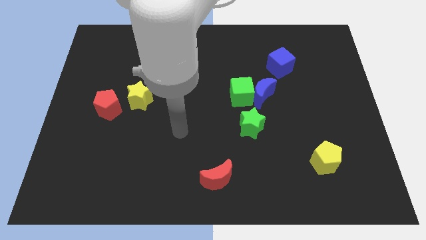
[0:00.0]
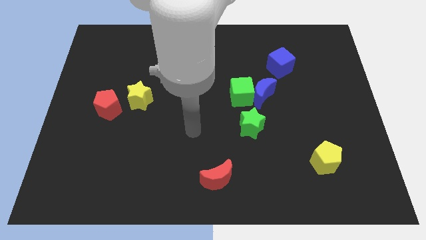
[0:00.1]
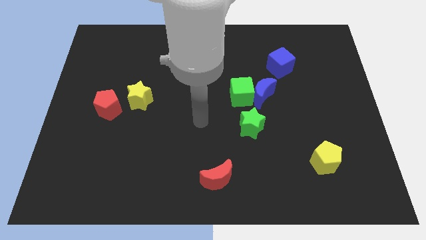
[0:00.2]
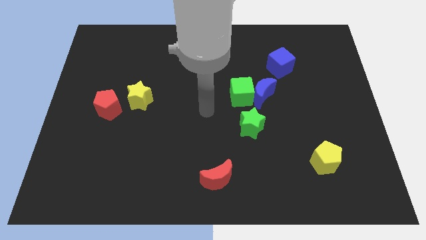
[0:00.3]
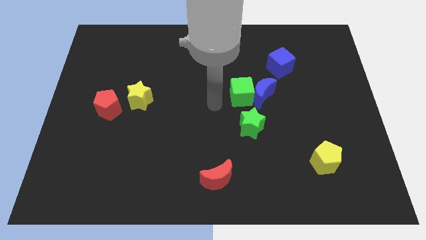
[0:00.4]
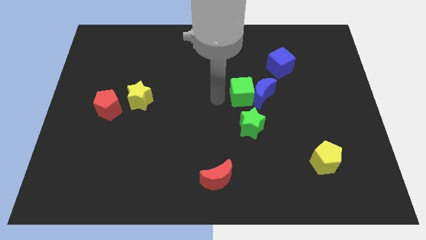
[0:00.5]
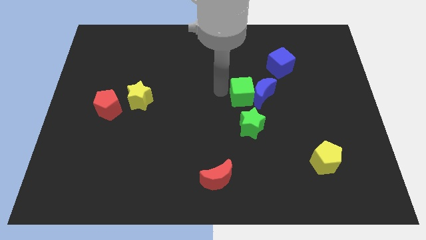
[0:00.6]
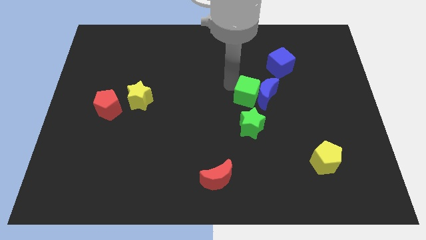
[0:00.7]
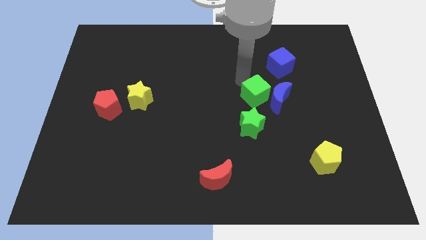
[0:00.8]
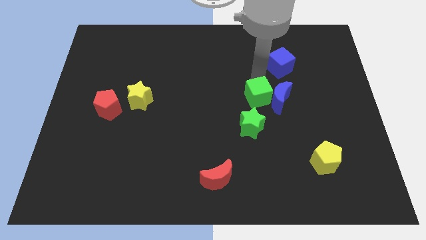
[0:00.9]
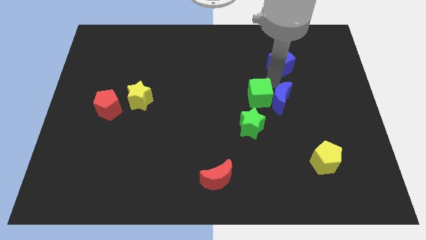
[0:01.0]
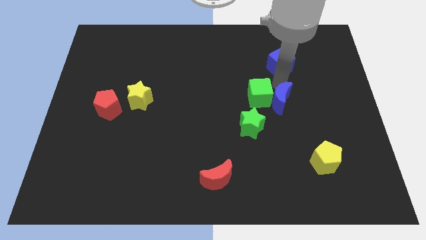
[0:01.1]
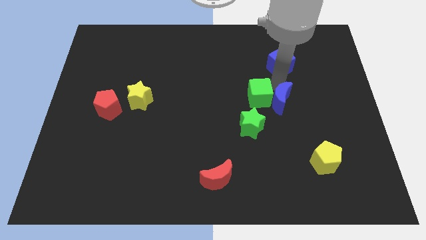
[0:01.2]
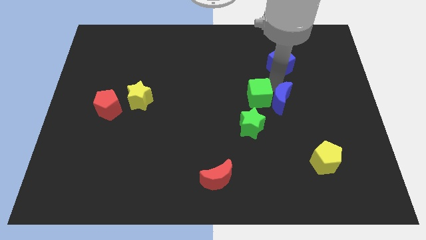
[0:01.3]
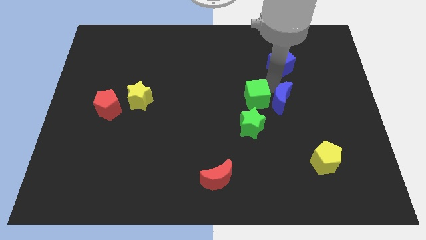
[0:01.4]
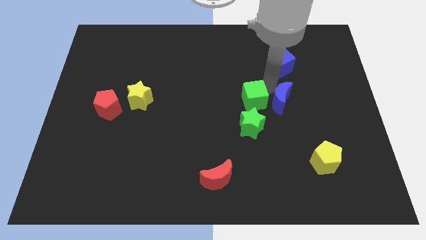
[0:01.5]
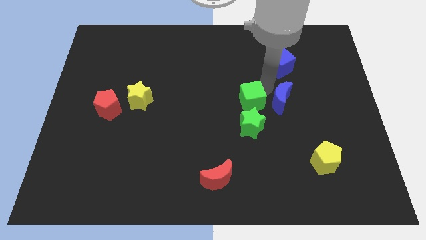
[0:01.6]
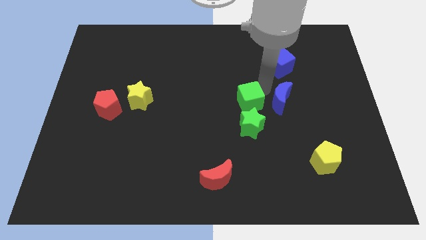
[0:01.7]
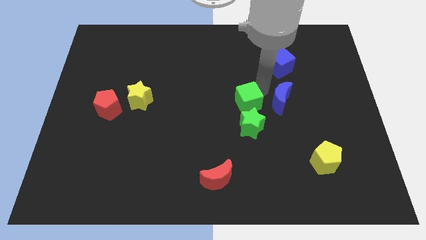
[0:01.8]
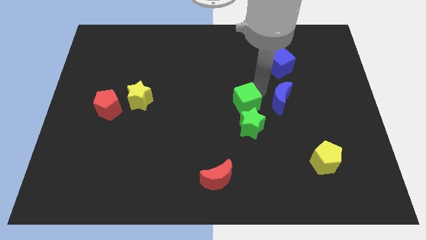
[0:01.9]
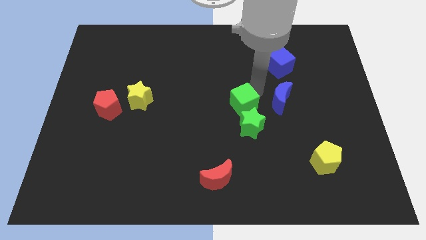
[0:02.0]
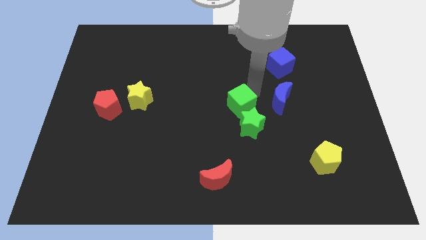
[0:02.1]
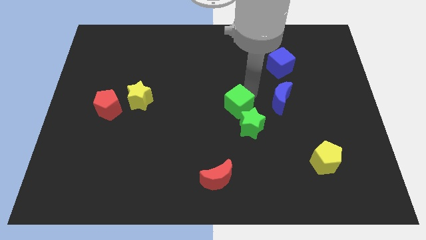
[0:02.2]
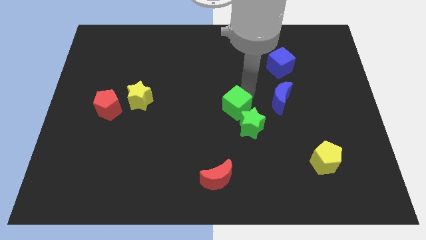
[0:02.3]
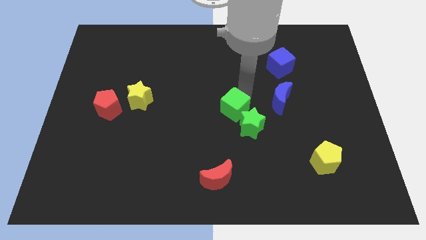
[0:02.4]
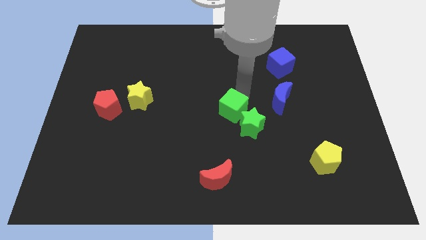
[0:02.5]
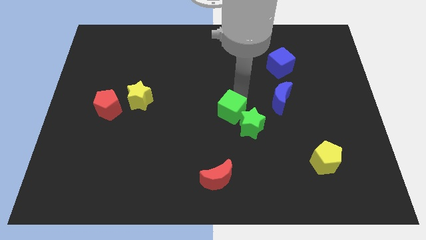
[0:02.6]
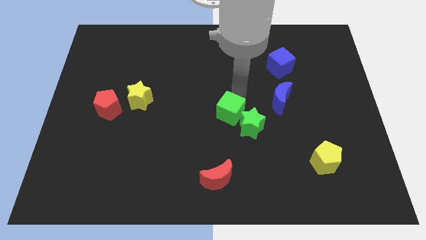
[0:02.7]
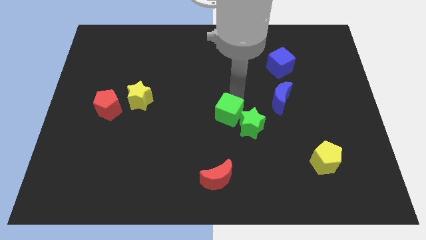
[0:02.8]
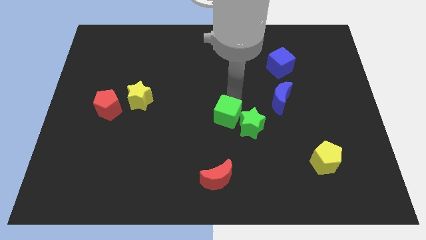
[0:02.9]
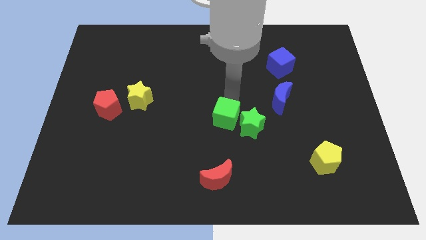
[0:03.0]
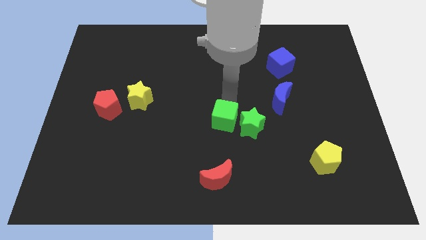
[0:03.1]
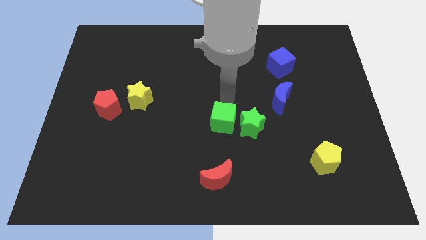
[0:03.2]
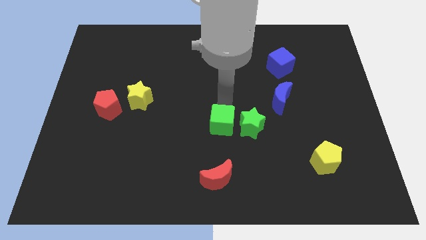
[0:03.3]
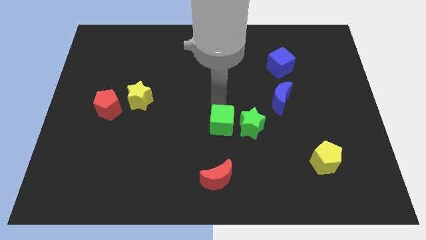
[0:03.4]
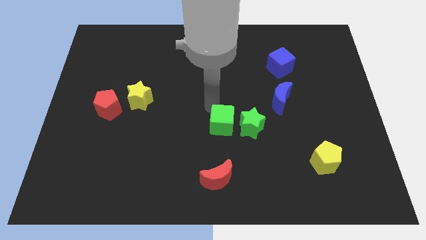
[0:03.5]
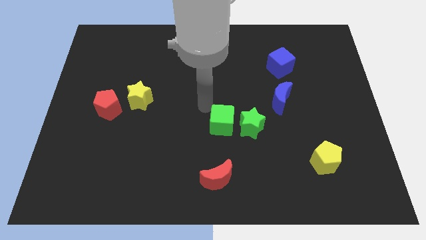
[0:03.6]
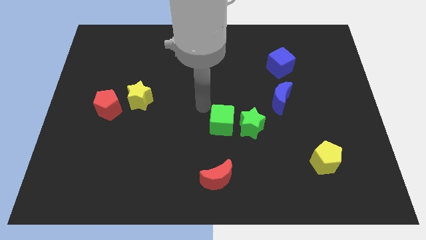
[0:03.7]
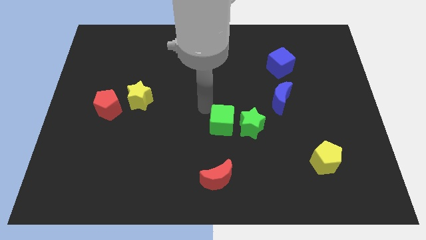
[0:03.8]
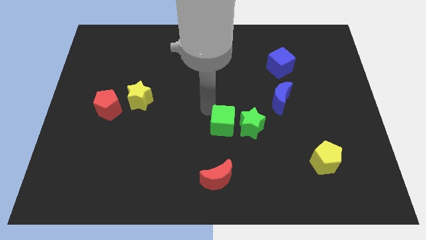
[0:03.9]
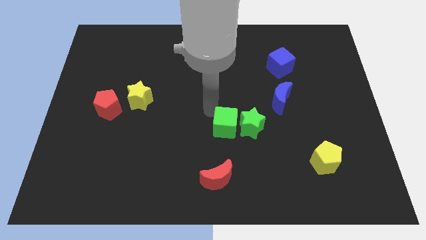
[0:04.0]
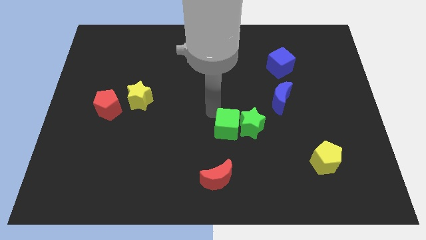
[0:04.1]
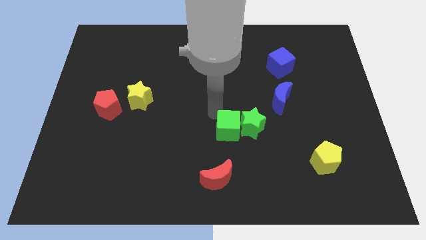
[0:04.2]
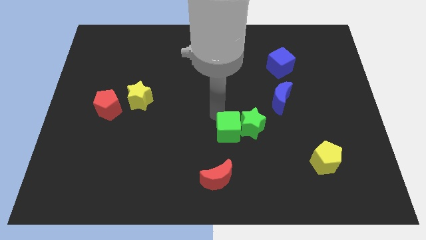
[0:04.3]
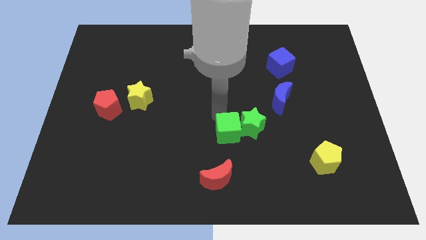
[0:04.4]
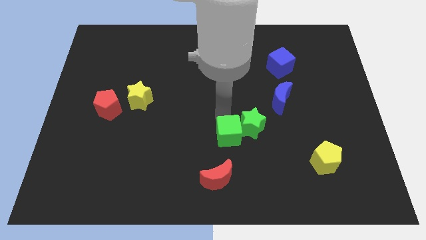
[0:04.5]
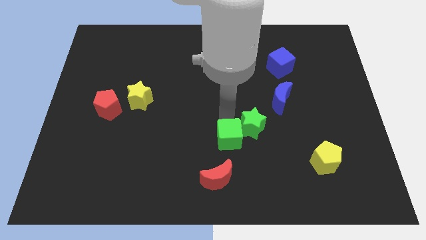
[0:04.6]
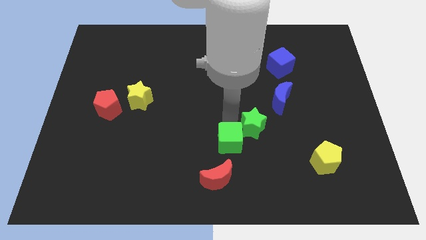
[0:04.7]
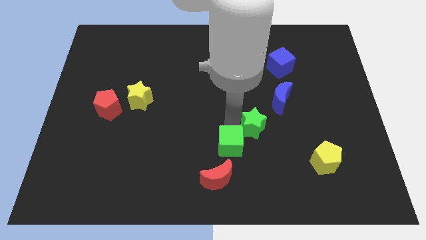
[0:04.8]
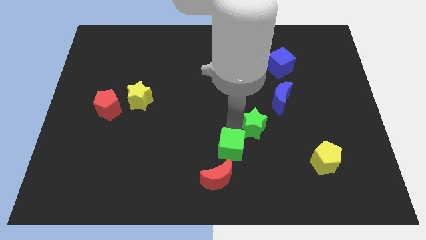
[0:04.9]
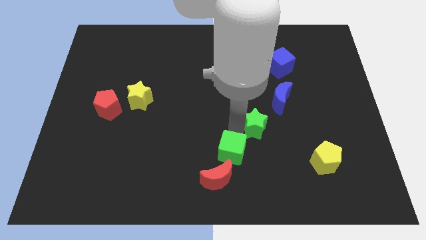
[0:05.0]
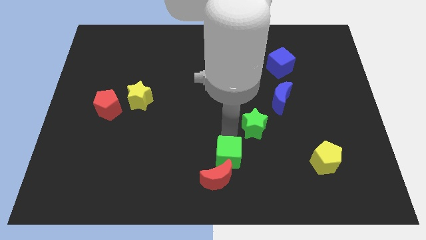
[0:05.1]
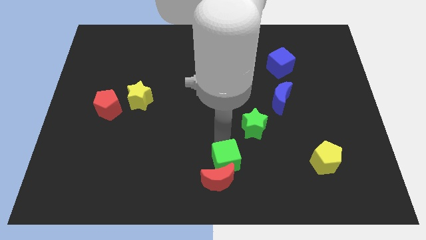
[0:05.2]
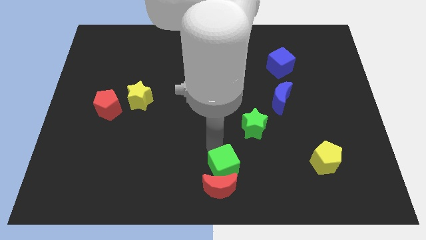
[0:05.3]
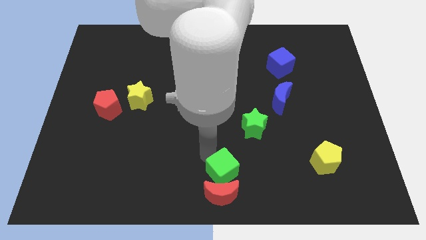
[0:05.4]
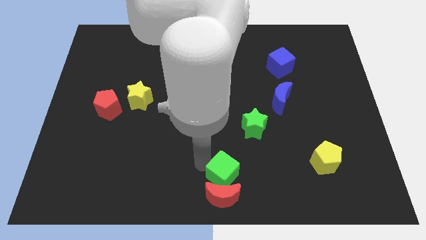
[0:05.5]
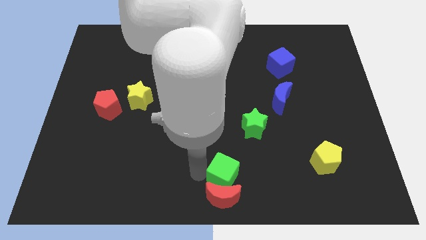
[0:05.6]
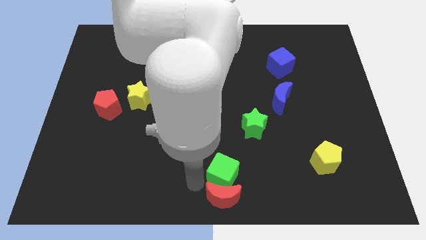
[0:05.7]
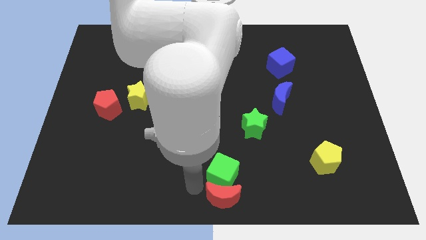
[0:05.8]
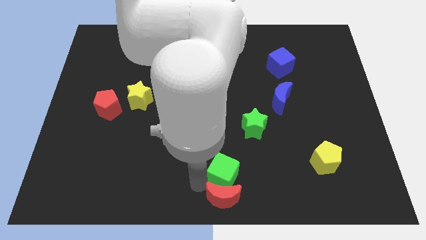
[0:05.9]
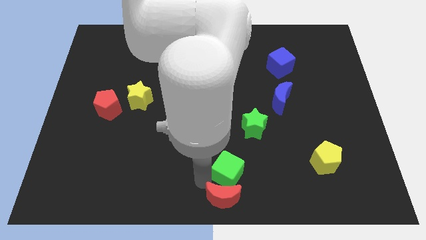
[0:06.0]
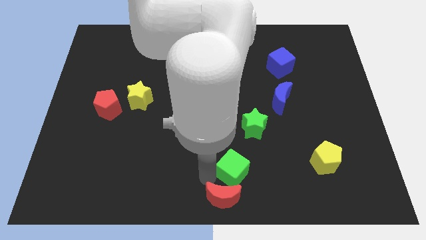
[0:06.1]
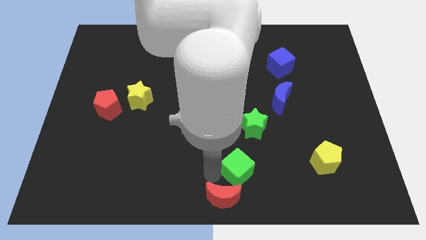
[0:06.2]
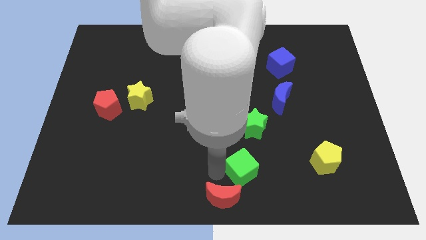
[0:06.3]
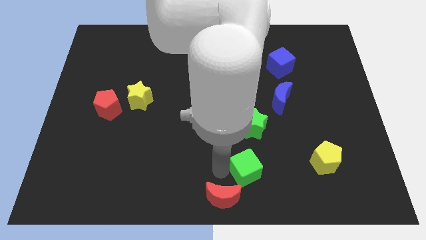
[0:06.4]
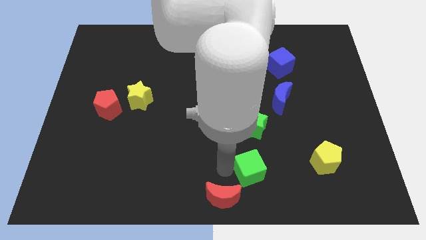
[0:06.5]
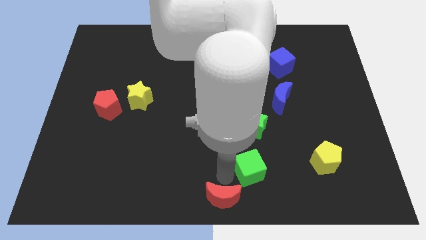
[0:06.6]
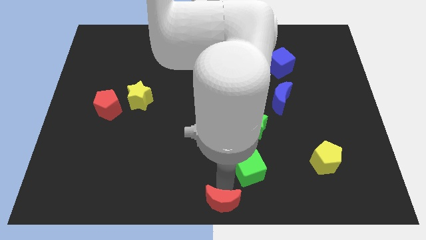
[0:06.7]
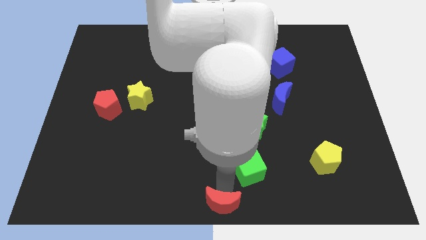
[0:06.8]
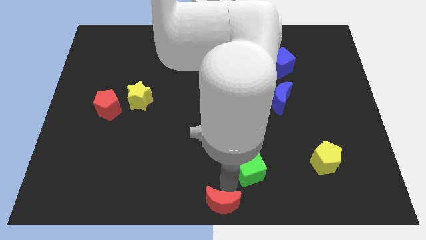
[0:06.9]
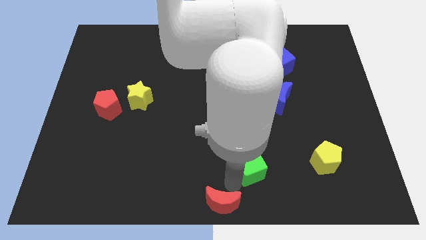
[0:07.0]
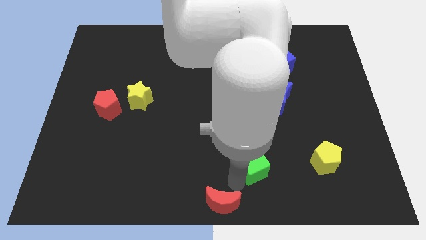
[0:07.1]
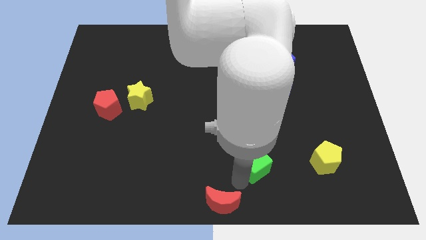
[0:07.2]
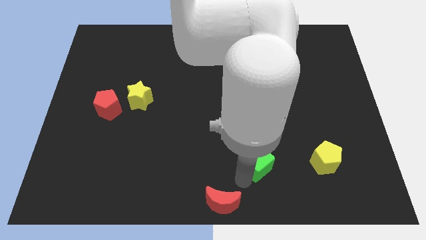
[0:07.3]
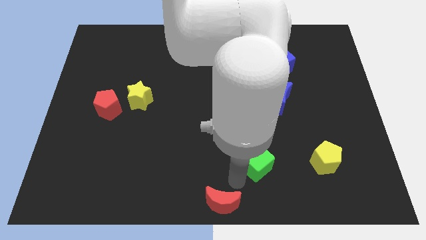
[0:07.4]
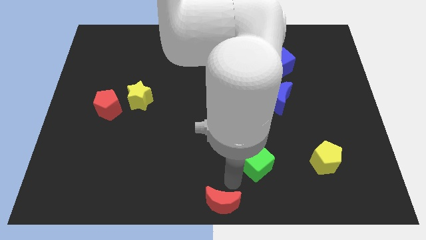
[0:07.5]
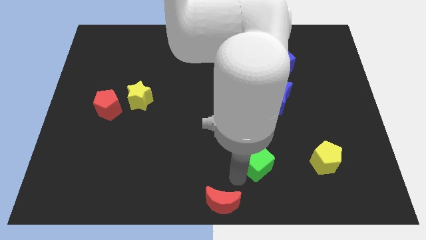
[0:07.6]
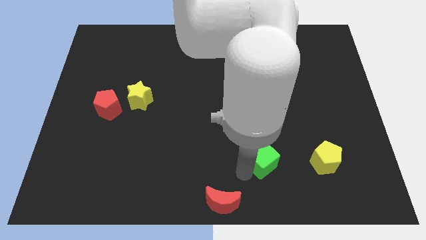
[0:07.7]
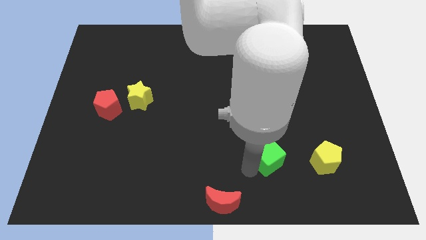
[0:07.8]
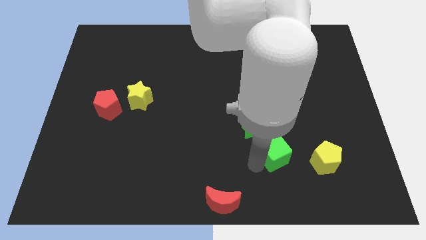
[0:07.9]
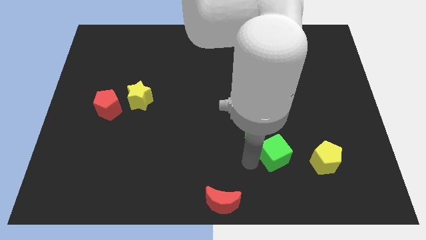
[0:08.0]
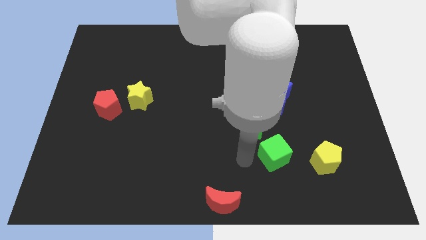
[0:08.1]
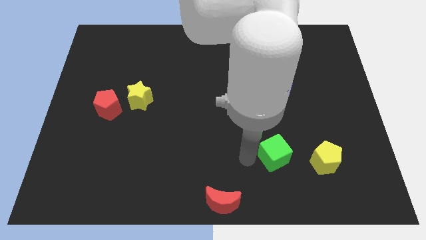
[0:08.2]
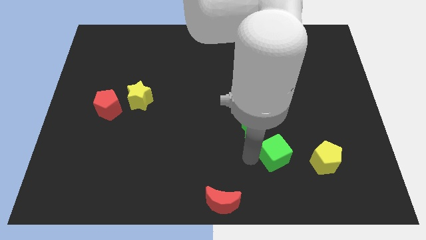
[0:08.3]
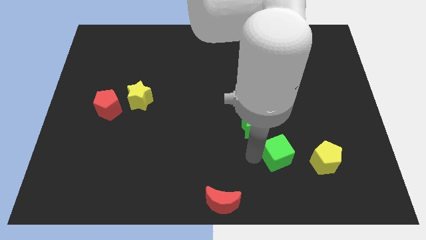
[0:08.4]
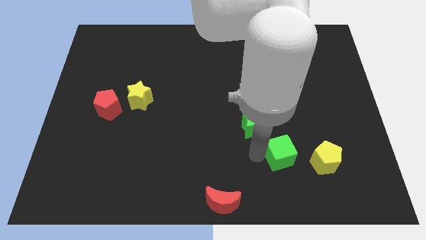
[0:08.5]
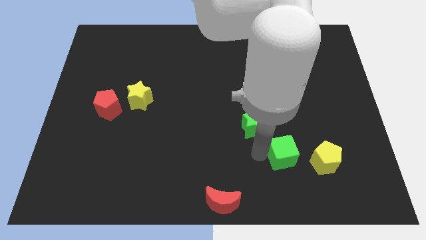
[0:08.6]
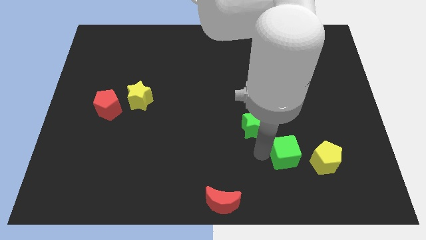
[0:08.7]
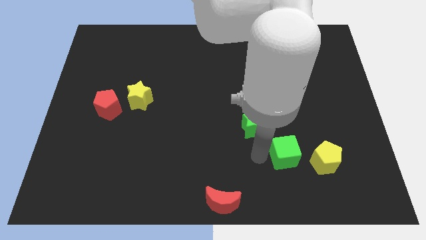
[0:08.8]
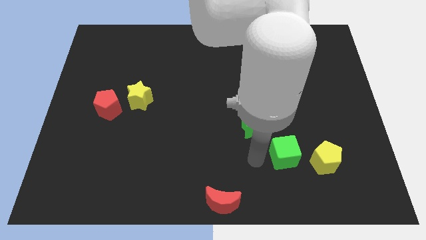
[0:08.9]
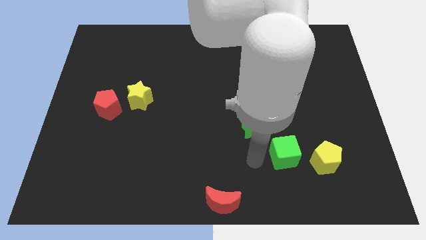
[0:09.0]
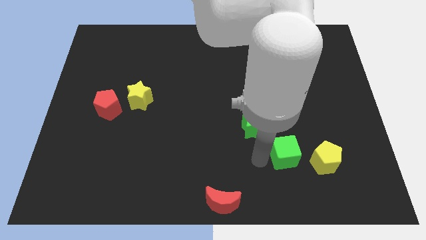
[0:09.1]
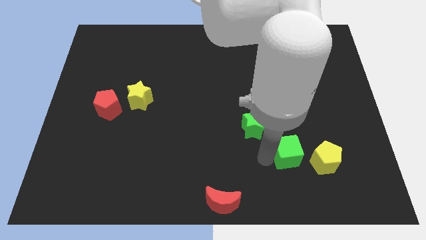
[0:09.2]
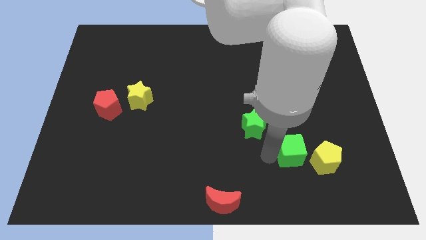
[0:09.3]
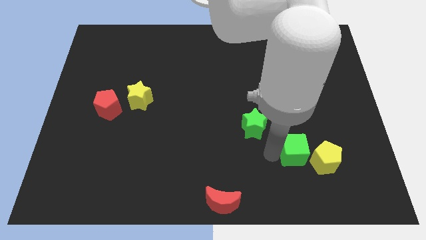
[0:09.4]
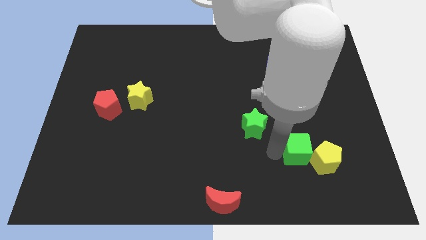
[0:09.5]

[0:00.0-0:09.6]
push the green cube towards the yellow pentagon
